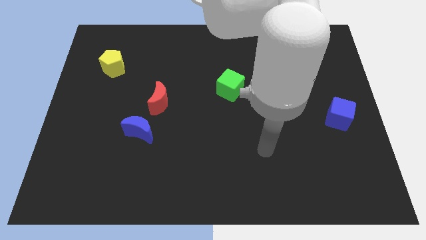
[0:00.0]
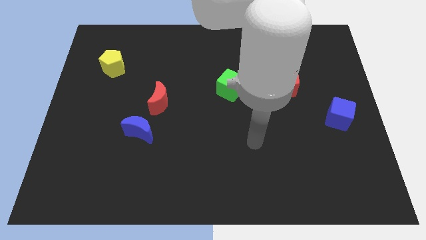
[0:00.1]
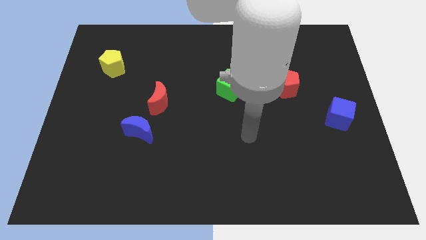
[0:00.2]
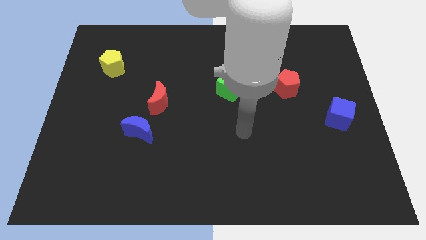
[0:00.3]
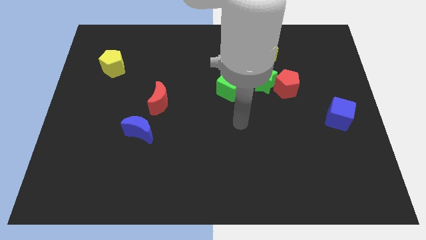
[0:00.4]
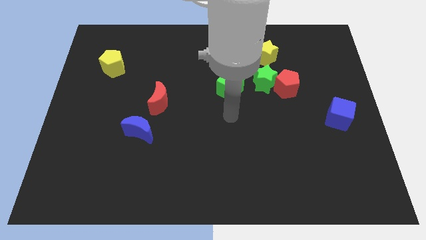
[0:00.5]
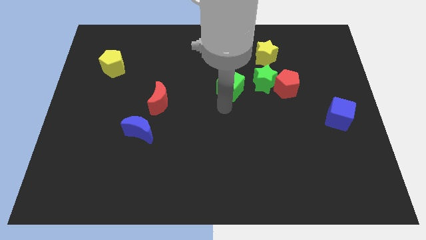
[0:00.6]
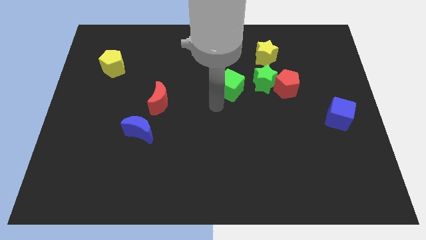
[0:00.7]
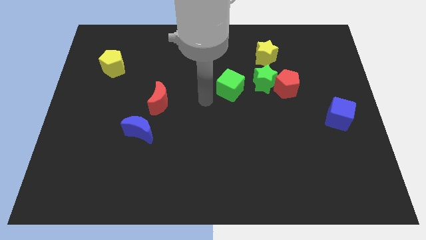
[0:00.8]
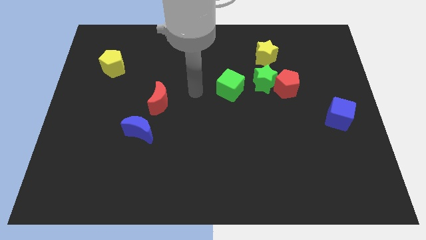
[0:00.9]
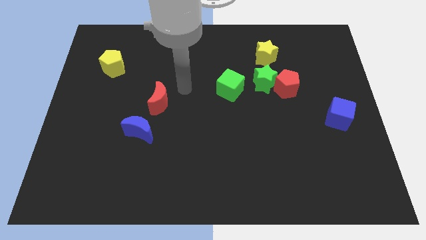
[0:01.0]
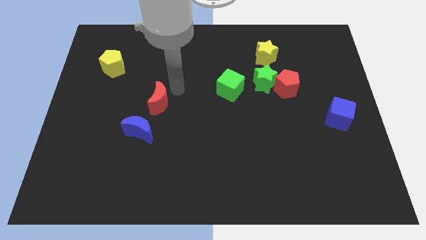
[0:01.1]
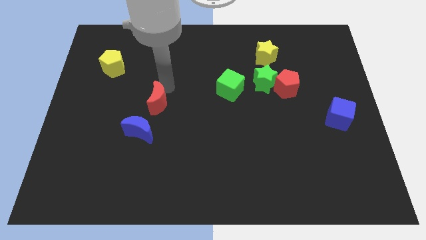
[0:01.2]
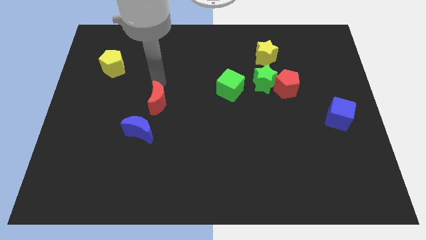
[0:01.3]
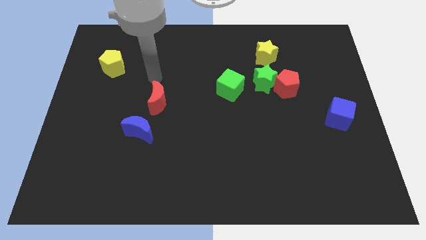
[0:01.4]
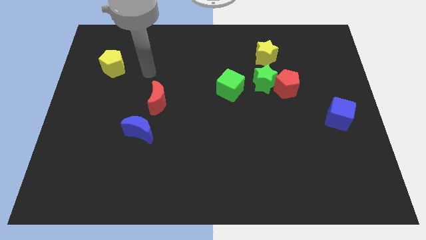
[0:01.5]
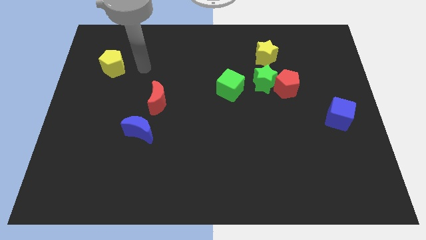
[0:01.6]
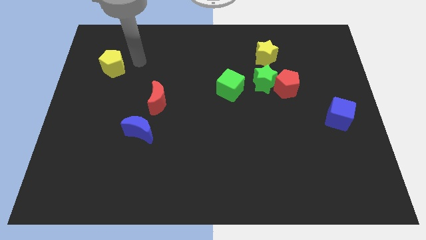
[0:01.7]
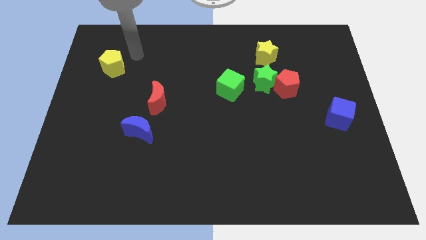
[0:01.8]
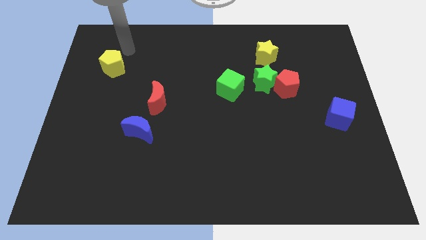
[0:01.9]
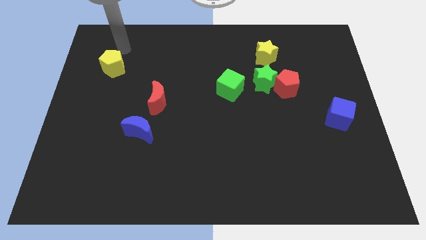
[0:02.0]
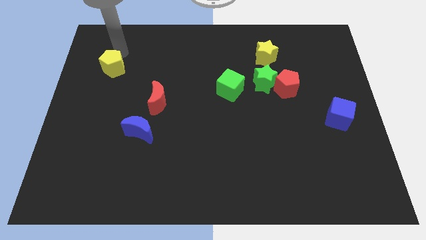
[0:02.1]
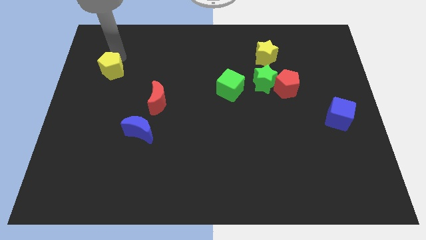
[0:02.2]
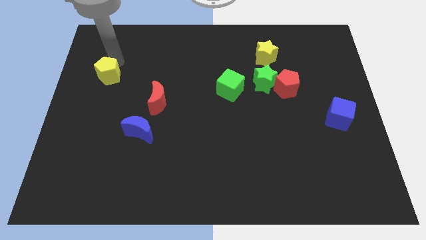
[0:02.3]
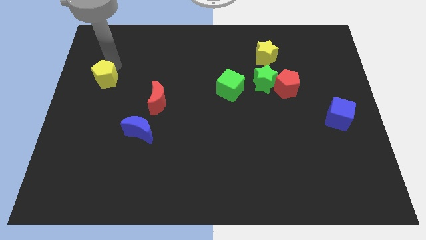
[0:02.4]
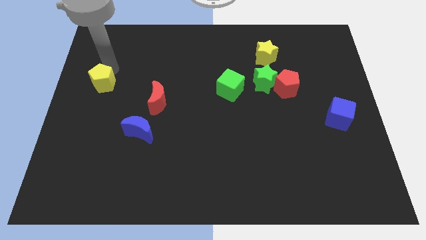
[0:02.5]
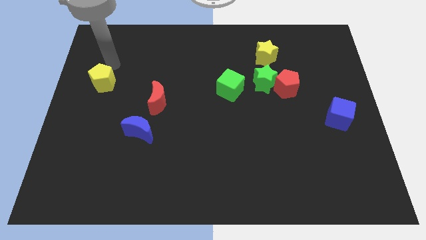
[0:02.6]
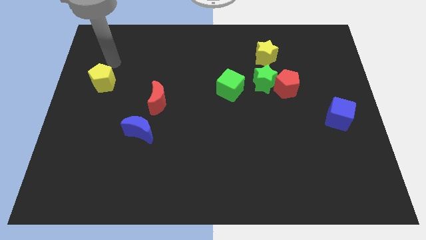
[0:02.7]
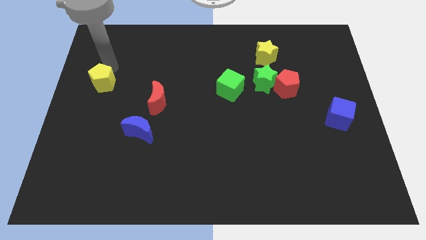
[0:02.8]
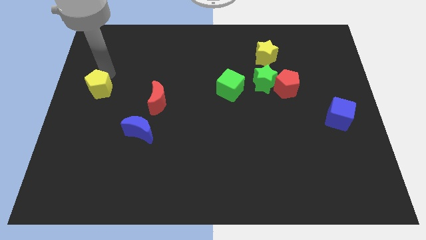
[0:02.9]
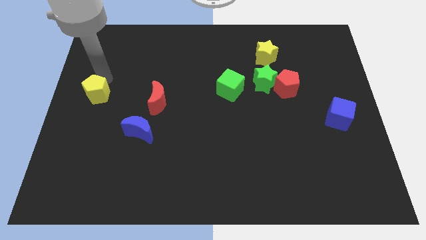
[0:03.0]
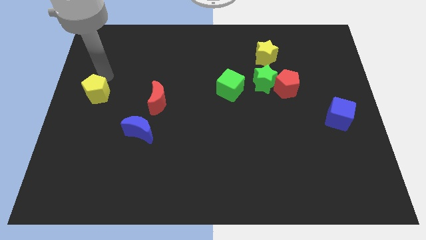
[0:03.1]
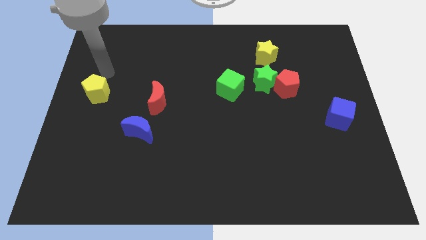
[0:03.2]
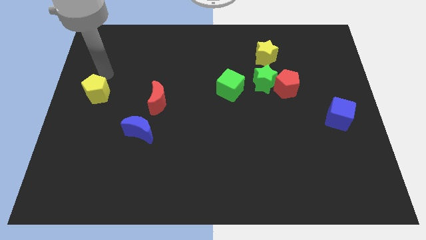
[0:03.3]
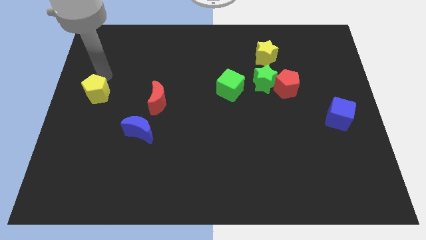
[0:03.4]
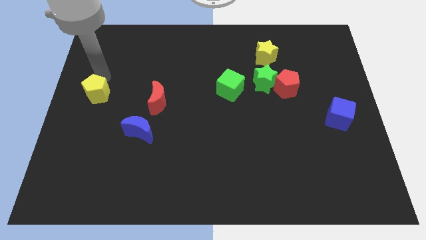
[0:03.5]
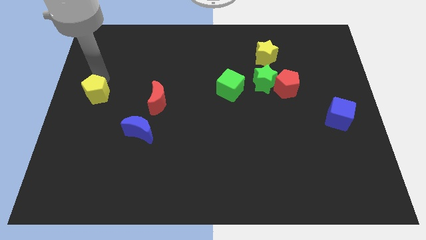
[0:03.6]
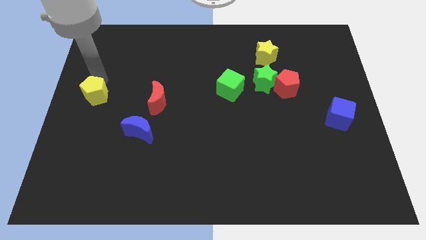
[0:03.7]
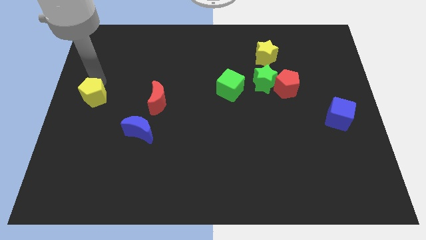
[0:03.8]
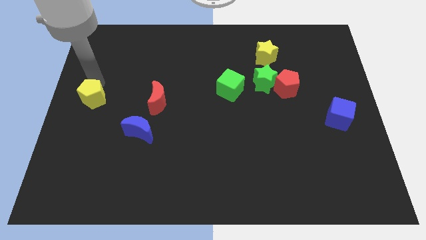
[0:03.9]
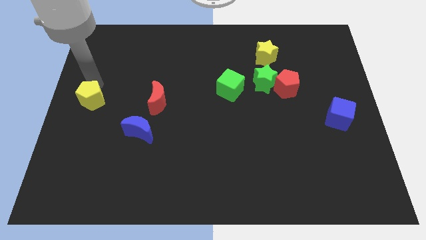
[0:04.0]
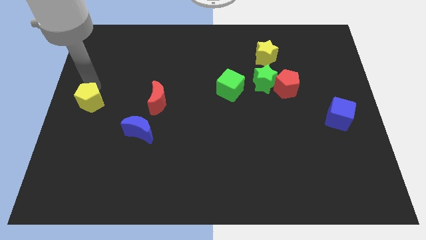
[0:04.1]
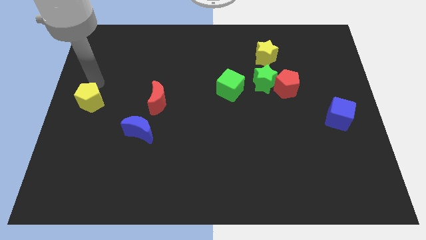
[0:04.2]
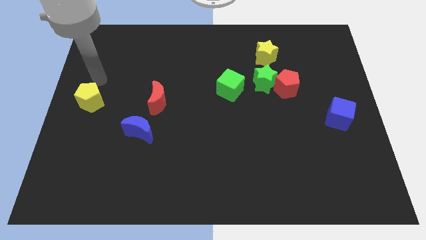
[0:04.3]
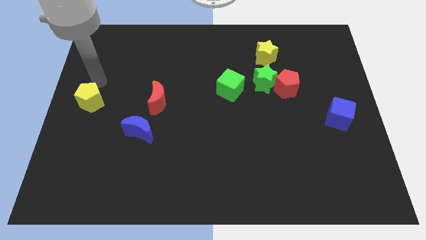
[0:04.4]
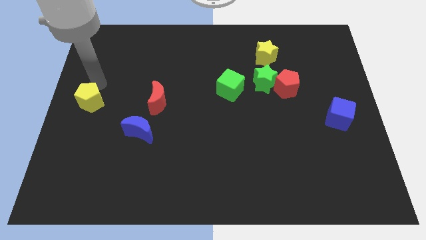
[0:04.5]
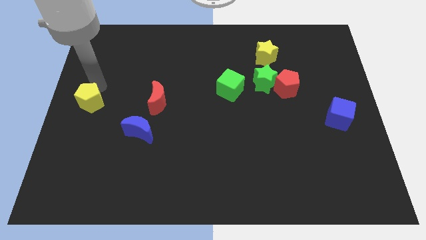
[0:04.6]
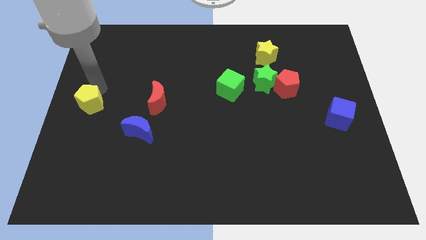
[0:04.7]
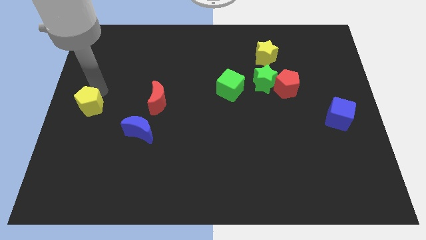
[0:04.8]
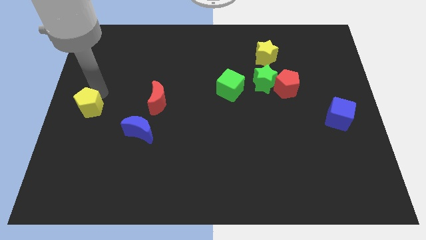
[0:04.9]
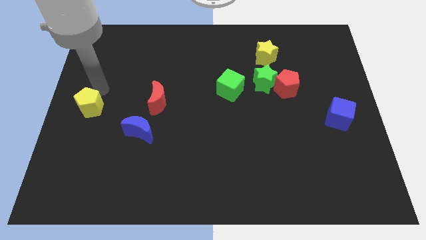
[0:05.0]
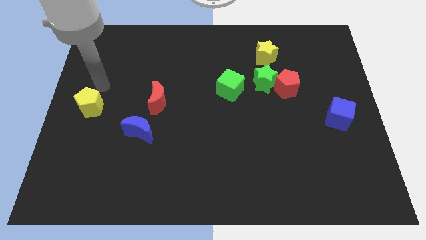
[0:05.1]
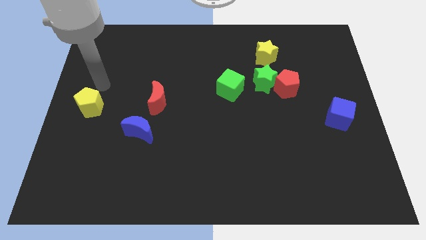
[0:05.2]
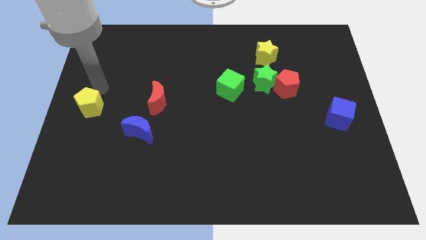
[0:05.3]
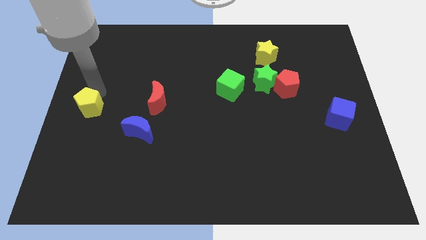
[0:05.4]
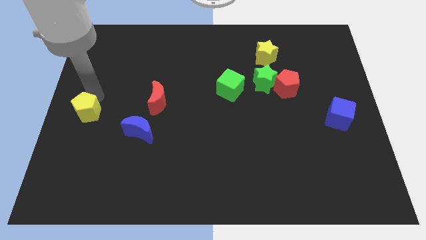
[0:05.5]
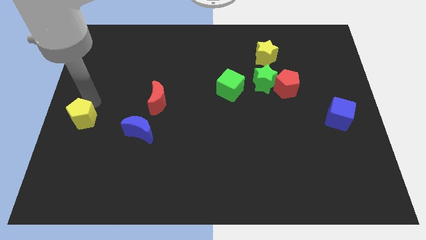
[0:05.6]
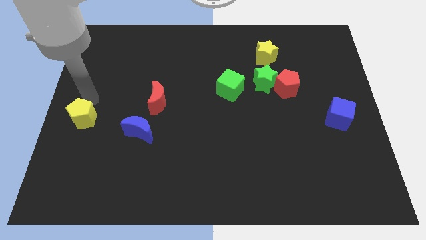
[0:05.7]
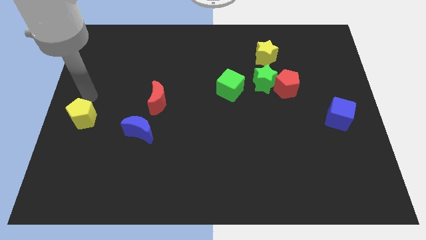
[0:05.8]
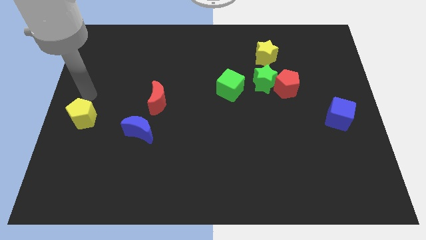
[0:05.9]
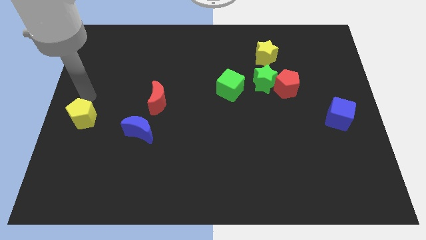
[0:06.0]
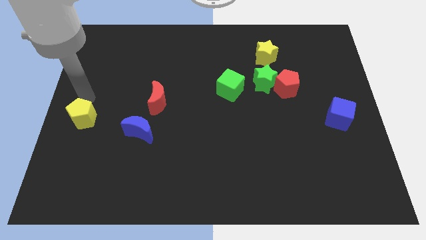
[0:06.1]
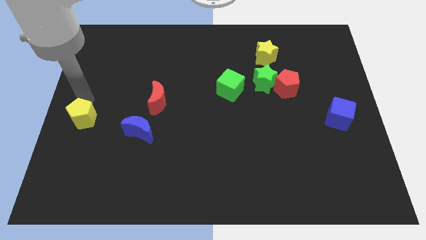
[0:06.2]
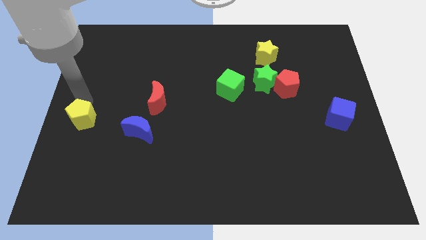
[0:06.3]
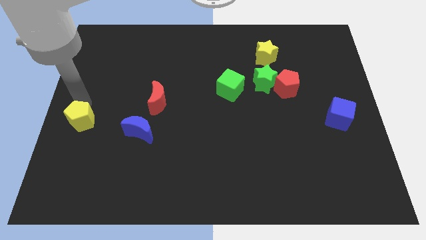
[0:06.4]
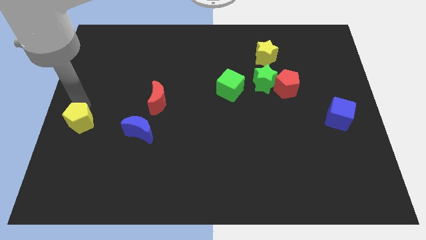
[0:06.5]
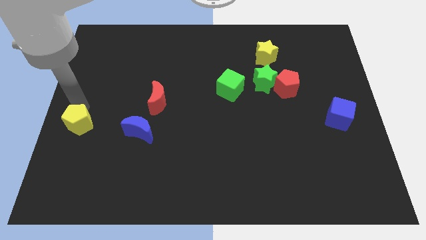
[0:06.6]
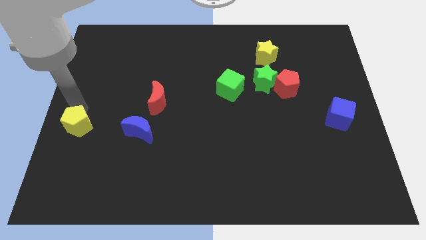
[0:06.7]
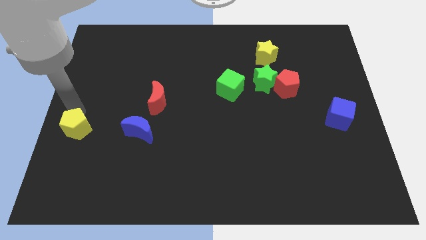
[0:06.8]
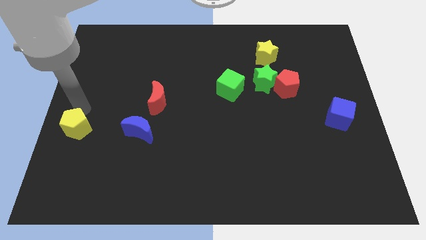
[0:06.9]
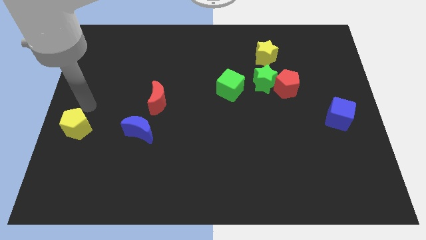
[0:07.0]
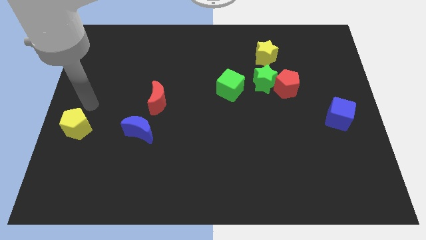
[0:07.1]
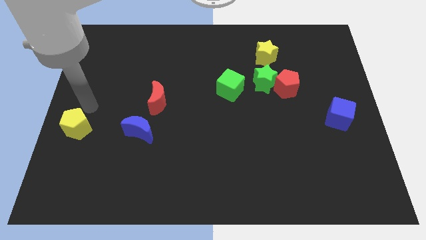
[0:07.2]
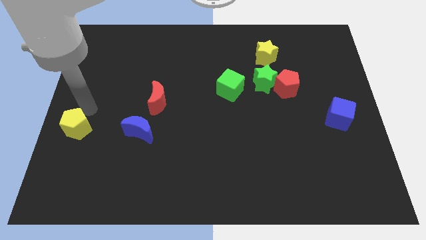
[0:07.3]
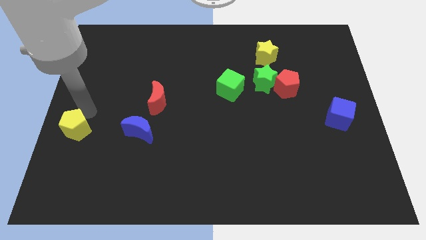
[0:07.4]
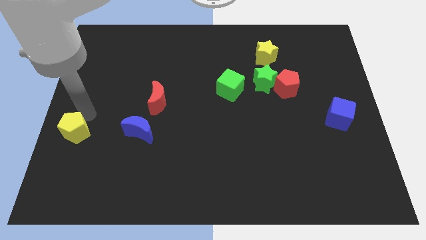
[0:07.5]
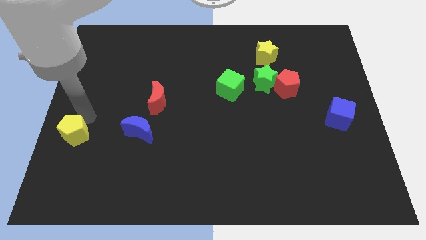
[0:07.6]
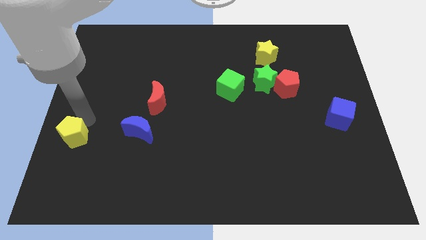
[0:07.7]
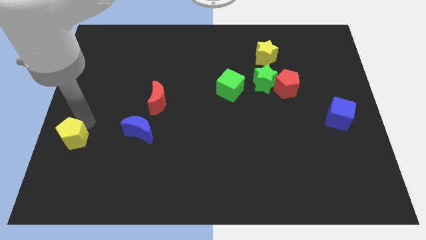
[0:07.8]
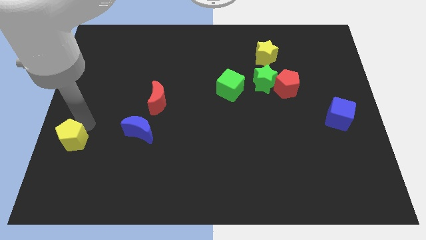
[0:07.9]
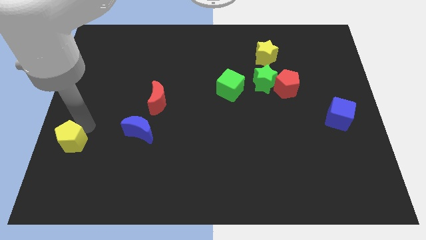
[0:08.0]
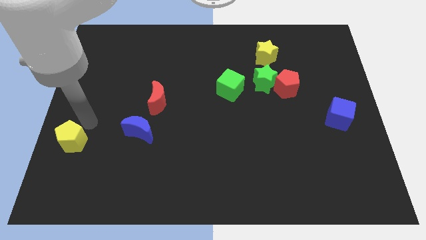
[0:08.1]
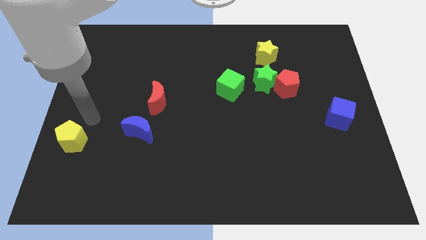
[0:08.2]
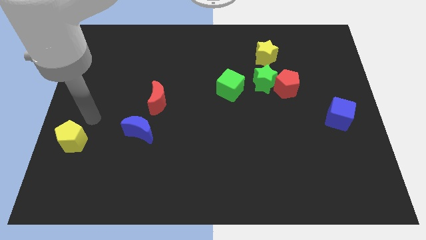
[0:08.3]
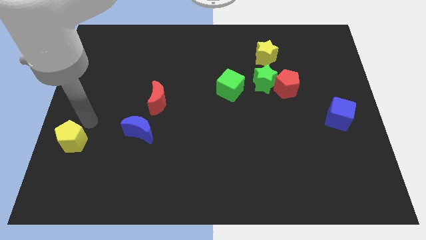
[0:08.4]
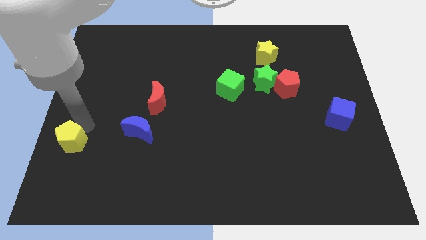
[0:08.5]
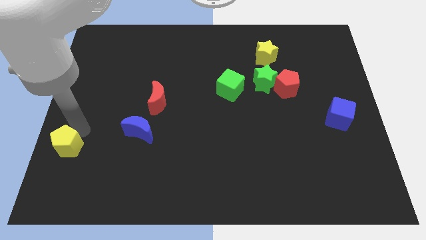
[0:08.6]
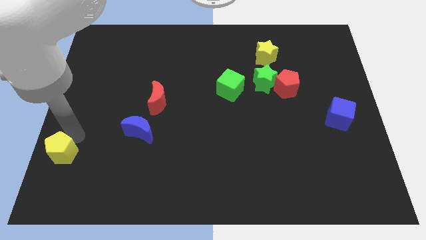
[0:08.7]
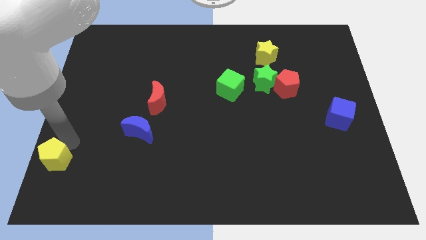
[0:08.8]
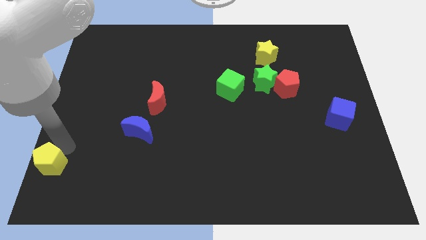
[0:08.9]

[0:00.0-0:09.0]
move the yellow pentagon to the bottom left corner
